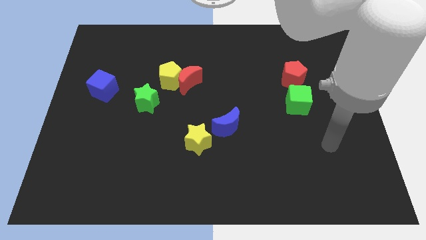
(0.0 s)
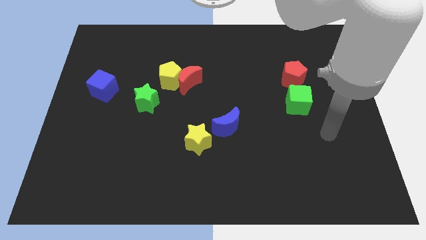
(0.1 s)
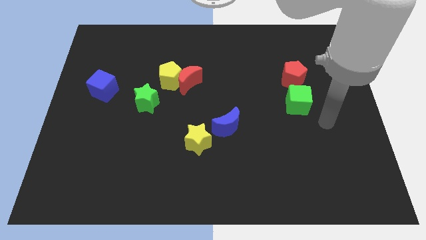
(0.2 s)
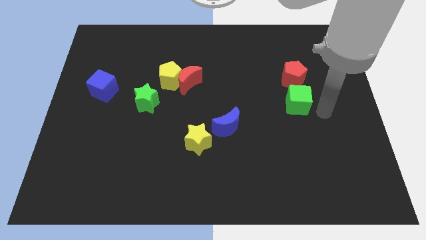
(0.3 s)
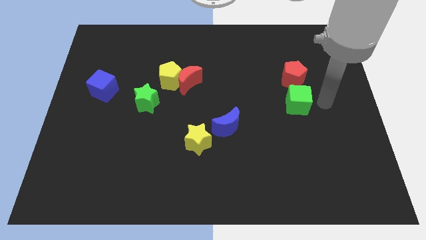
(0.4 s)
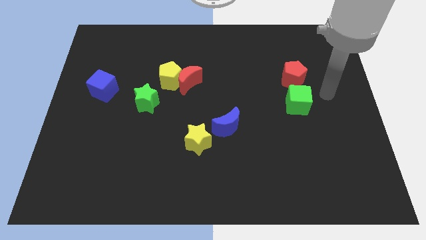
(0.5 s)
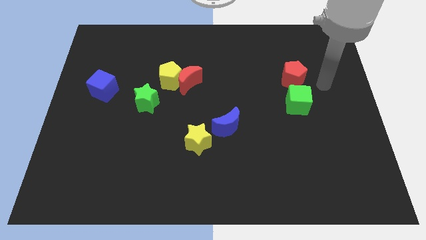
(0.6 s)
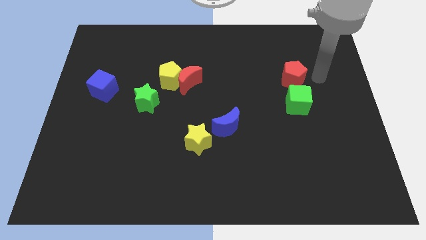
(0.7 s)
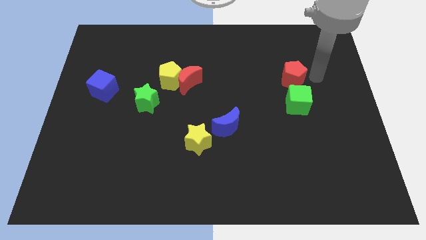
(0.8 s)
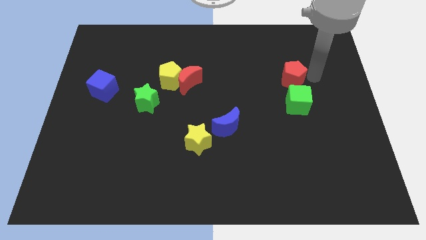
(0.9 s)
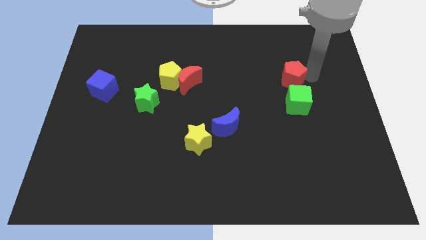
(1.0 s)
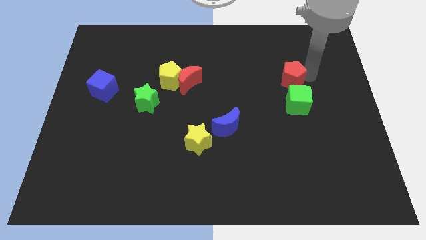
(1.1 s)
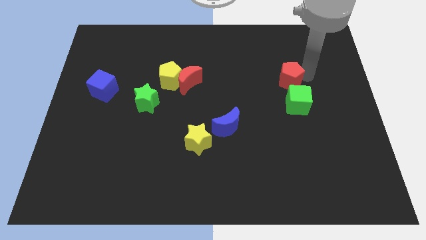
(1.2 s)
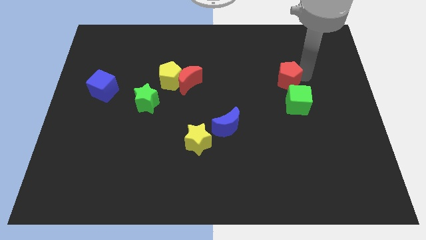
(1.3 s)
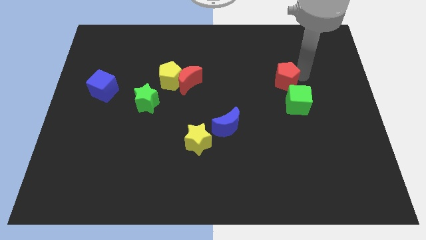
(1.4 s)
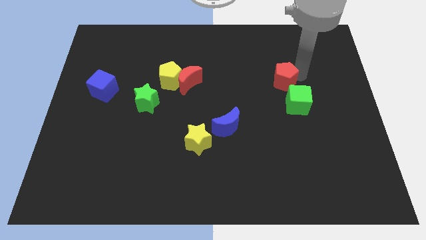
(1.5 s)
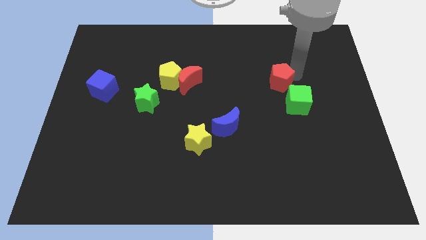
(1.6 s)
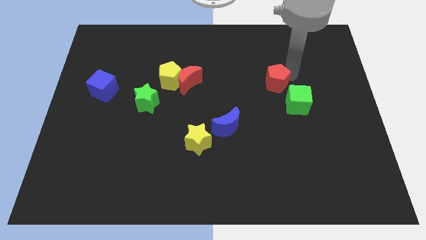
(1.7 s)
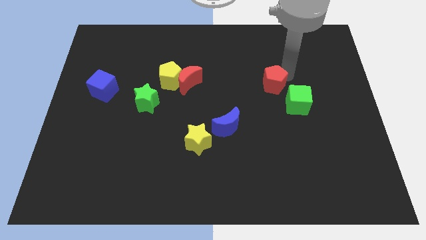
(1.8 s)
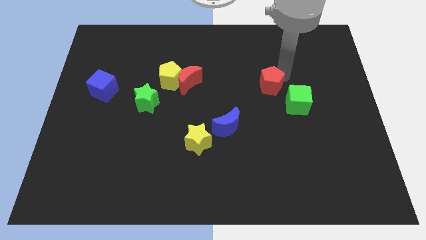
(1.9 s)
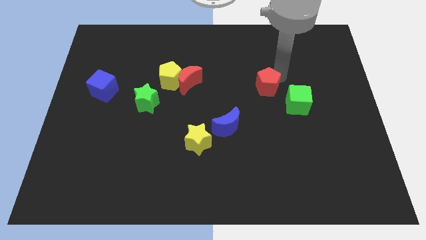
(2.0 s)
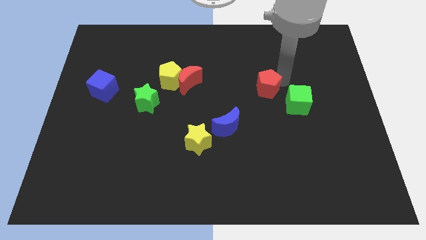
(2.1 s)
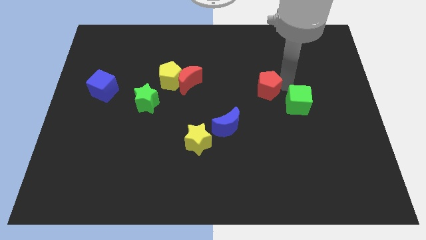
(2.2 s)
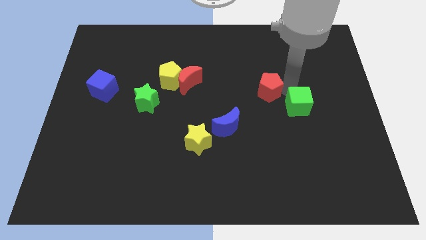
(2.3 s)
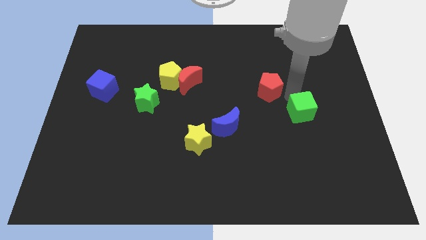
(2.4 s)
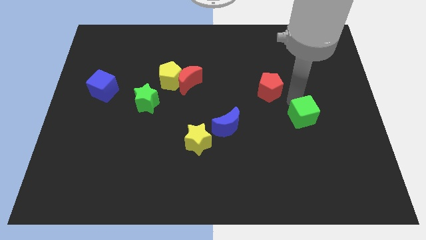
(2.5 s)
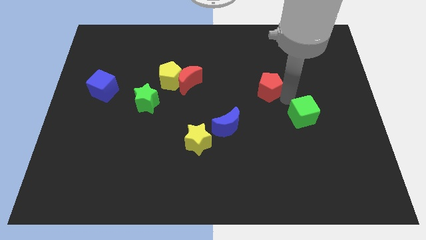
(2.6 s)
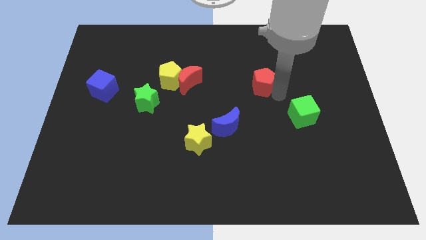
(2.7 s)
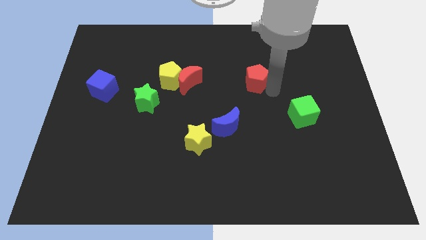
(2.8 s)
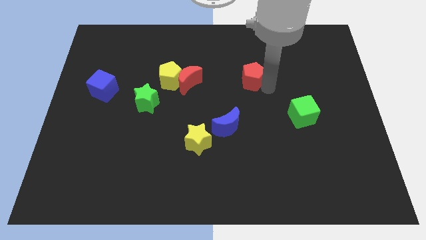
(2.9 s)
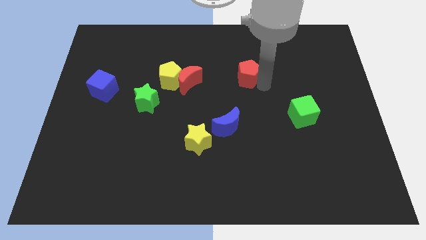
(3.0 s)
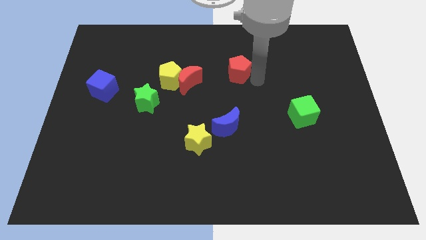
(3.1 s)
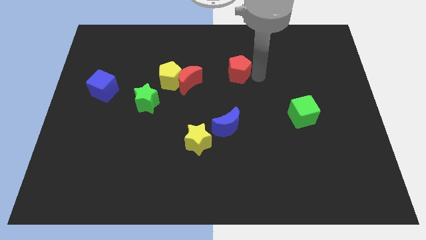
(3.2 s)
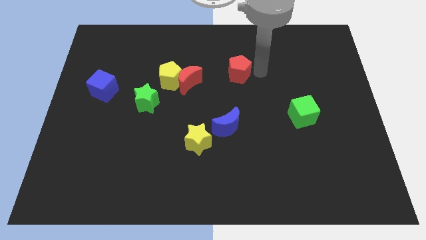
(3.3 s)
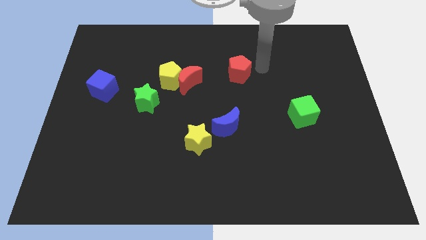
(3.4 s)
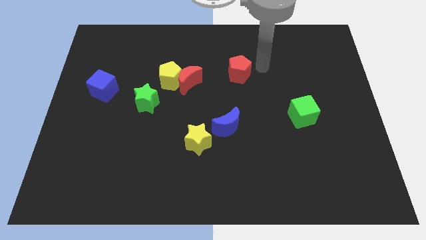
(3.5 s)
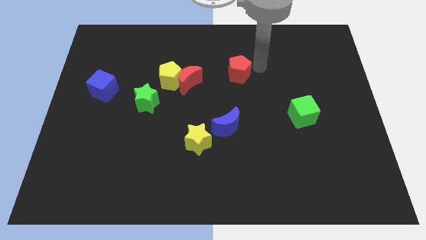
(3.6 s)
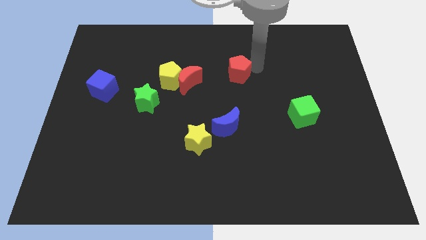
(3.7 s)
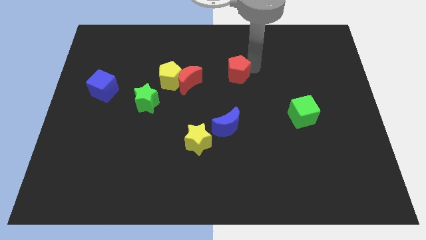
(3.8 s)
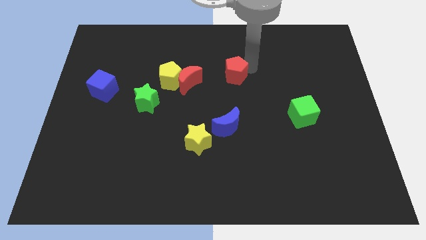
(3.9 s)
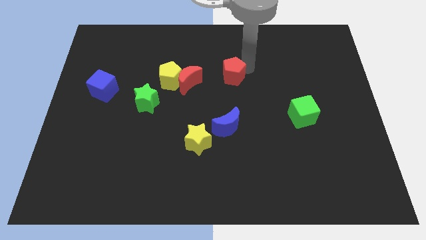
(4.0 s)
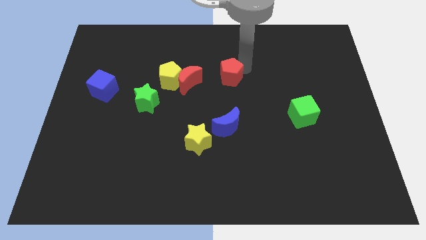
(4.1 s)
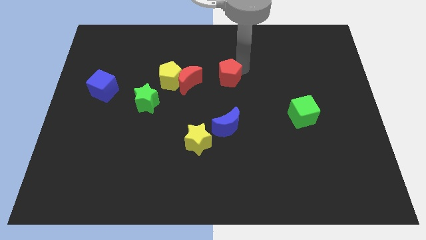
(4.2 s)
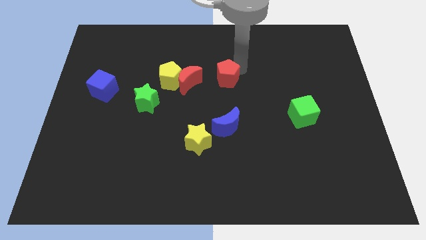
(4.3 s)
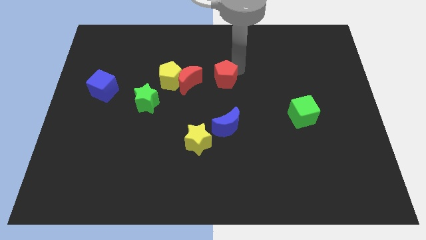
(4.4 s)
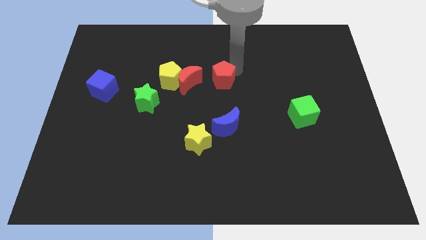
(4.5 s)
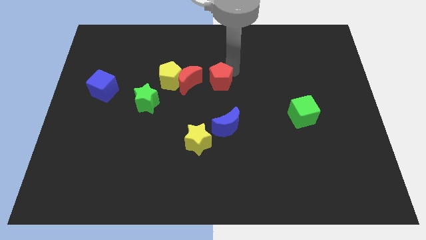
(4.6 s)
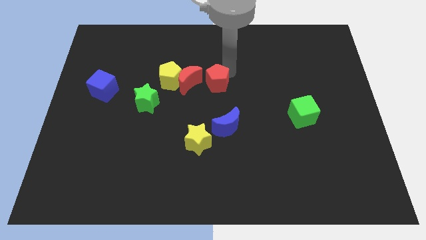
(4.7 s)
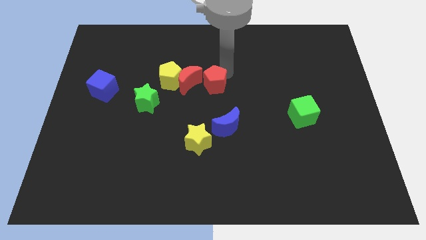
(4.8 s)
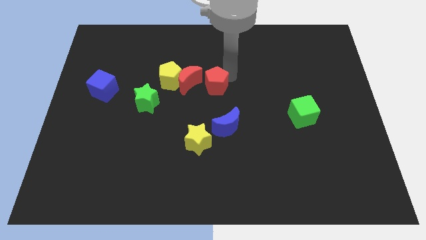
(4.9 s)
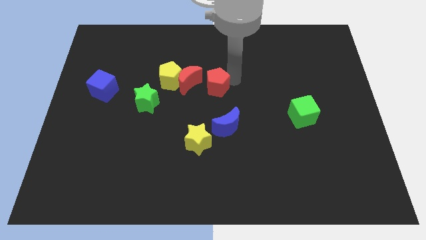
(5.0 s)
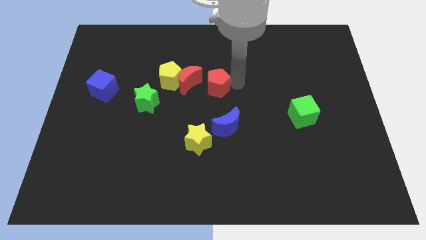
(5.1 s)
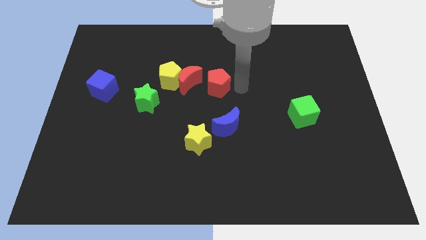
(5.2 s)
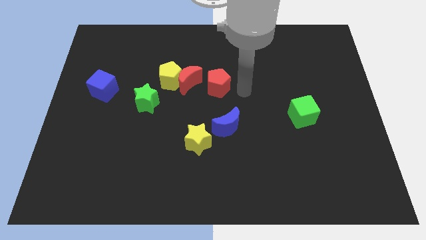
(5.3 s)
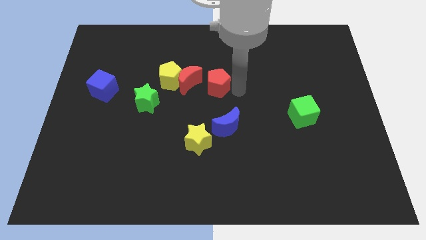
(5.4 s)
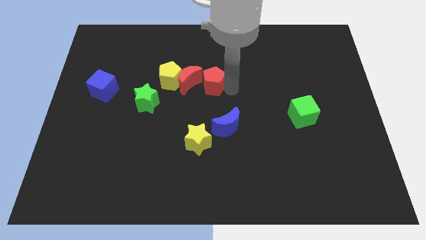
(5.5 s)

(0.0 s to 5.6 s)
put the red pentagon towards the red moon

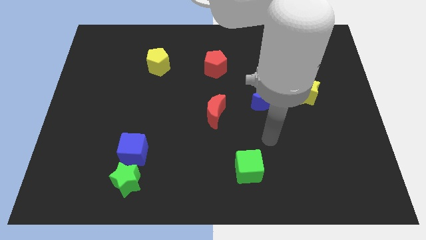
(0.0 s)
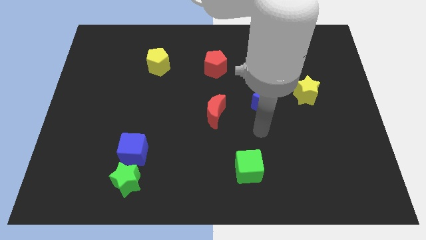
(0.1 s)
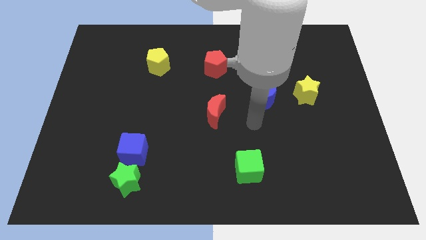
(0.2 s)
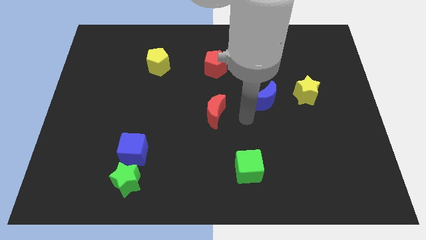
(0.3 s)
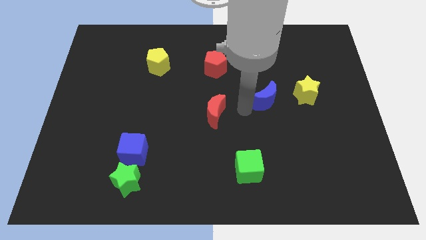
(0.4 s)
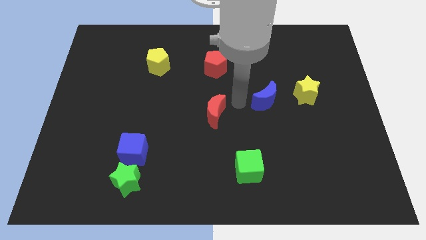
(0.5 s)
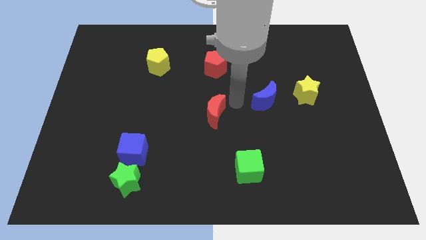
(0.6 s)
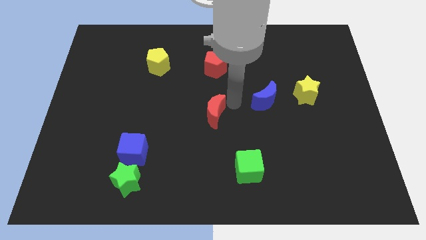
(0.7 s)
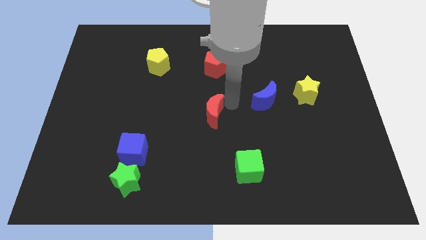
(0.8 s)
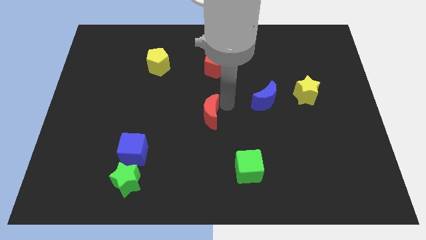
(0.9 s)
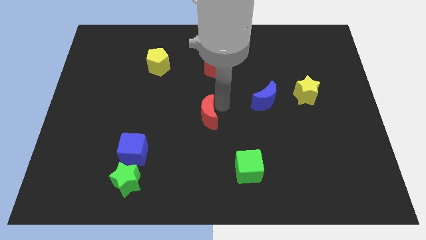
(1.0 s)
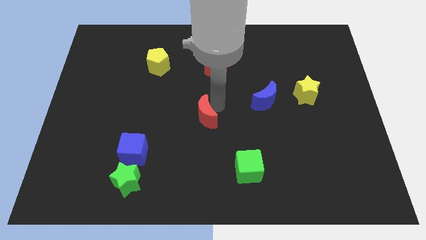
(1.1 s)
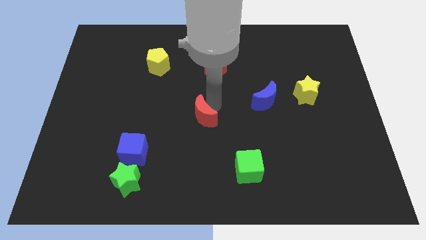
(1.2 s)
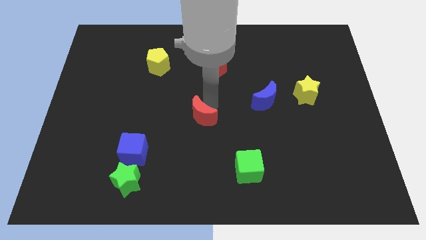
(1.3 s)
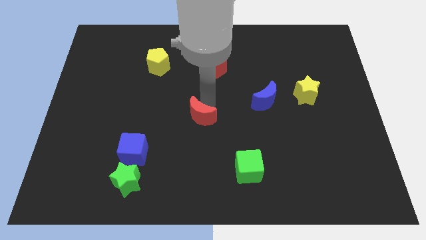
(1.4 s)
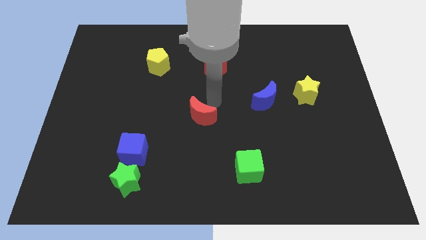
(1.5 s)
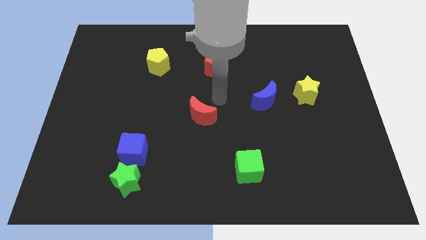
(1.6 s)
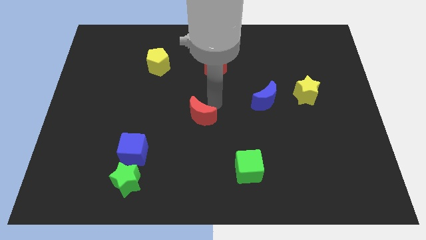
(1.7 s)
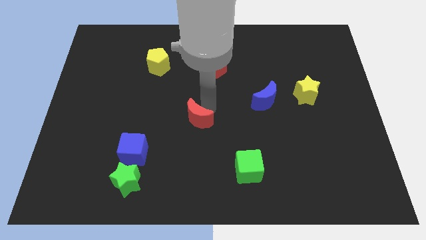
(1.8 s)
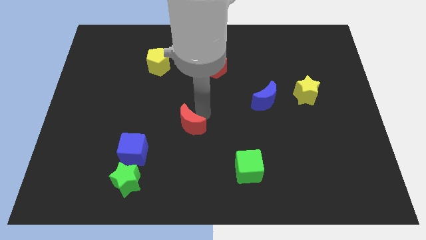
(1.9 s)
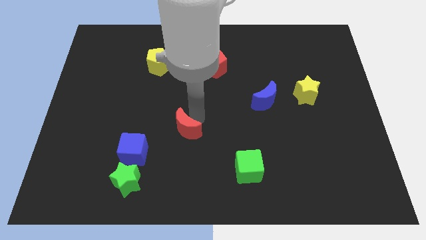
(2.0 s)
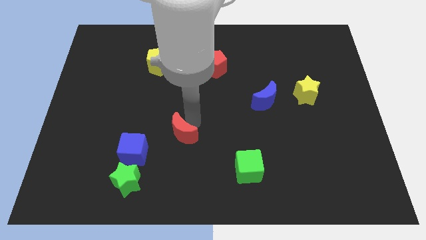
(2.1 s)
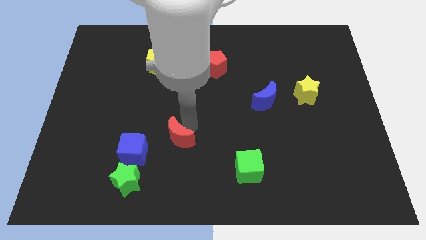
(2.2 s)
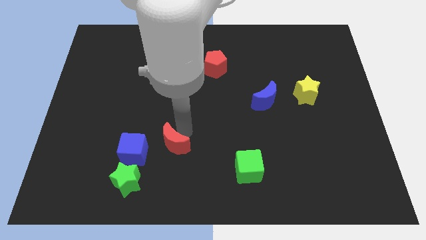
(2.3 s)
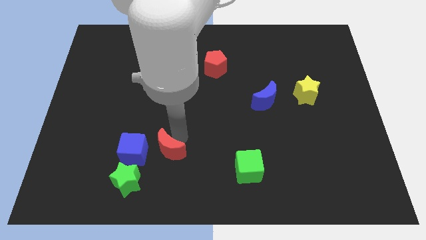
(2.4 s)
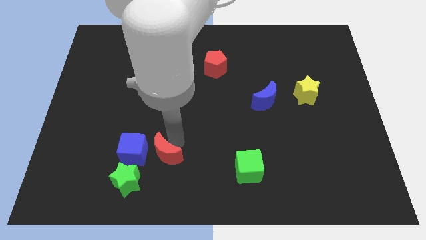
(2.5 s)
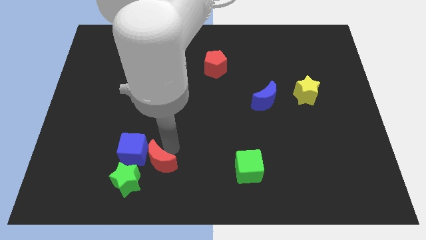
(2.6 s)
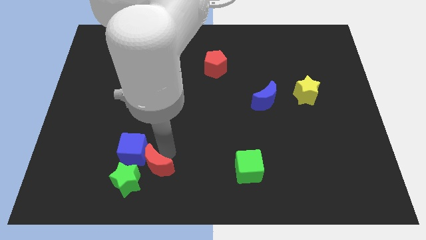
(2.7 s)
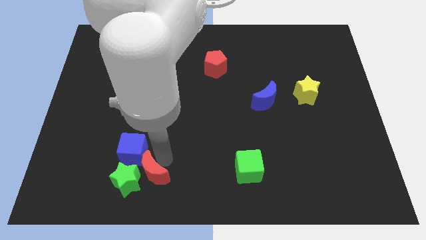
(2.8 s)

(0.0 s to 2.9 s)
push the red moon next to the green star
